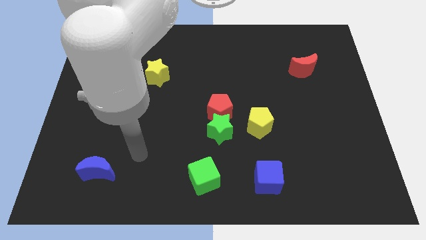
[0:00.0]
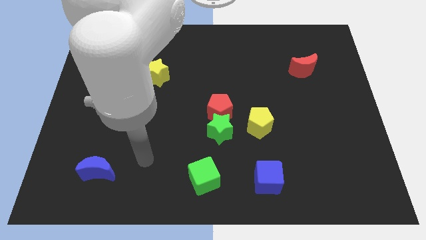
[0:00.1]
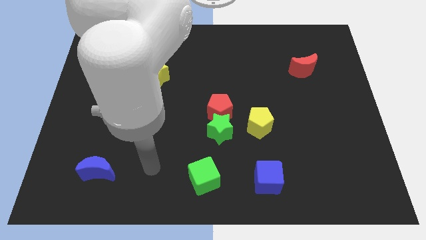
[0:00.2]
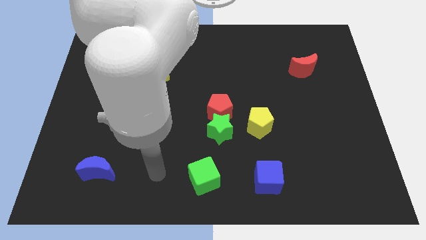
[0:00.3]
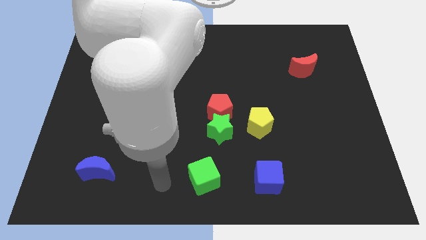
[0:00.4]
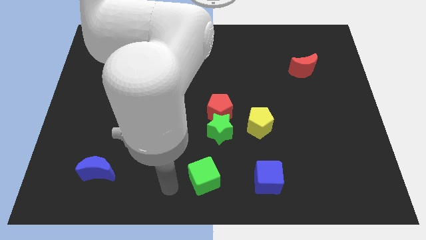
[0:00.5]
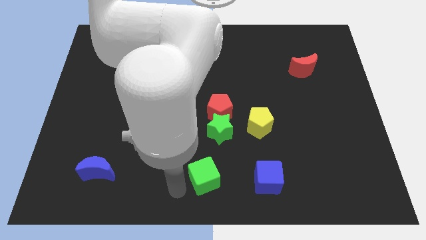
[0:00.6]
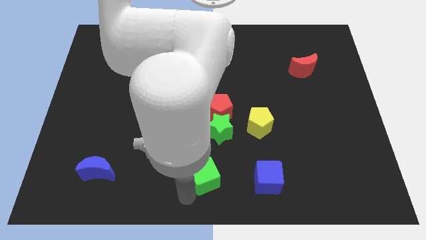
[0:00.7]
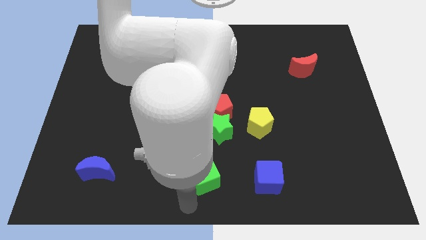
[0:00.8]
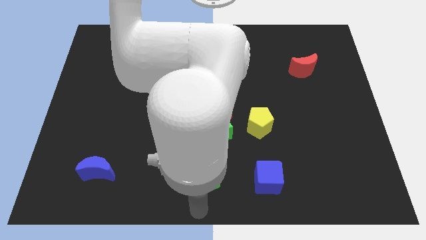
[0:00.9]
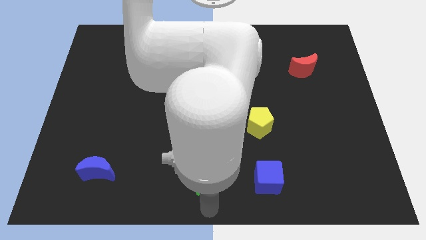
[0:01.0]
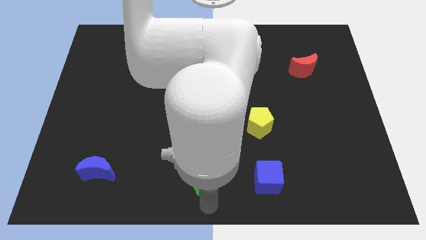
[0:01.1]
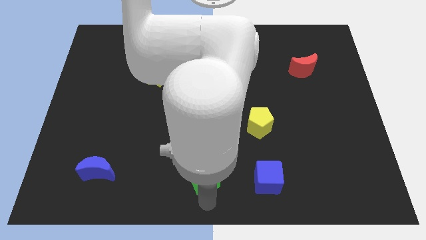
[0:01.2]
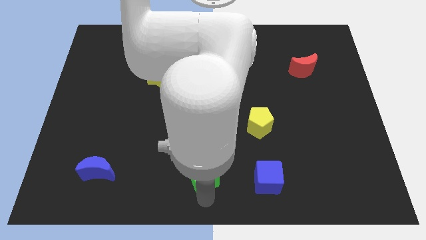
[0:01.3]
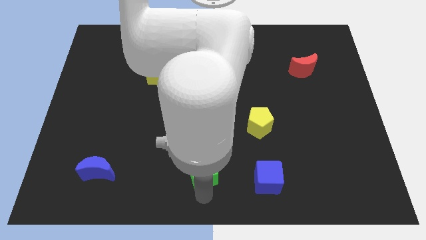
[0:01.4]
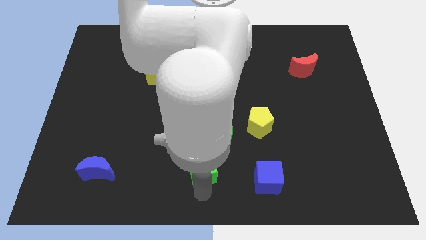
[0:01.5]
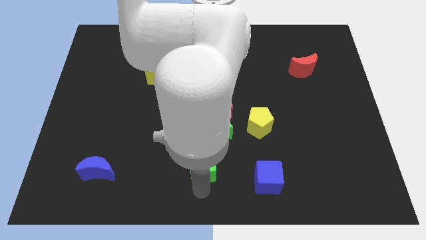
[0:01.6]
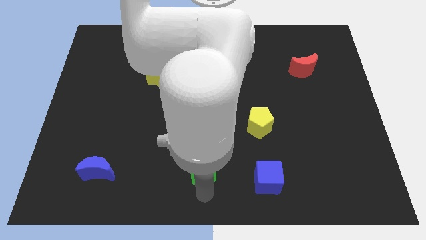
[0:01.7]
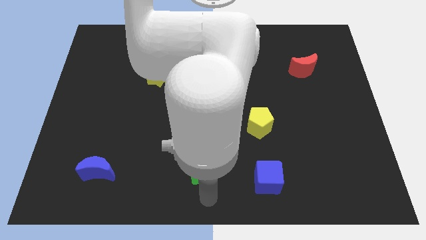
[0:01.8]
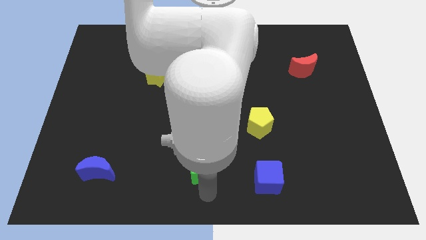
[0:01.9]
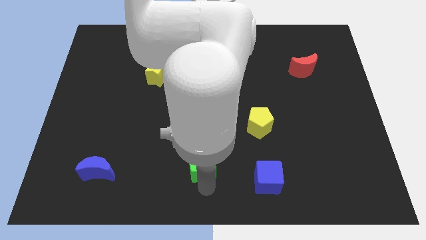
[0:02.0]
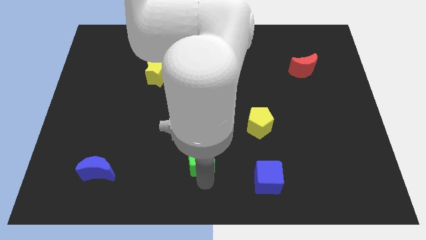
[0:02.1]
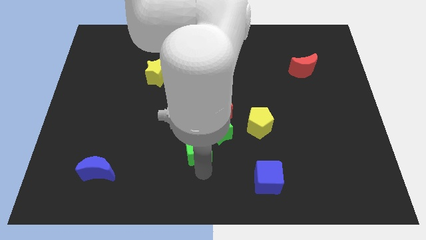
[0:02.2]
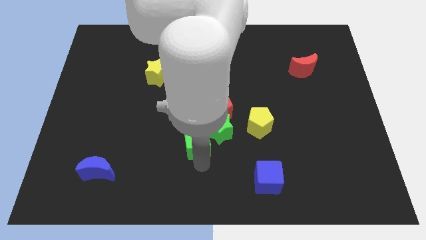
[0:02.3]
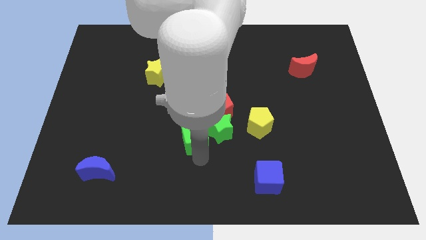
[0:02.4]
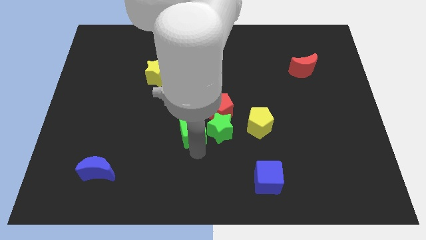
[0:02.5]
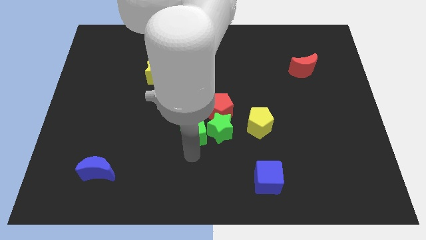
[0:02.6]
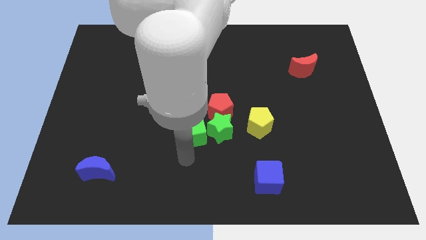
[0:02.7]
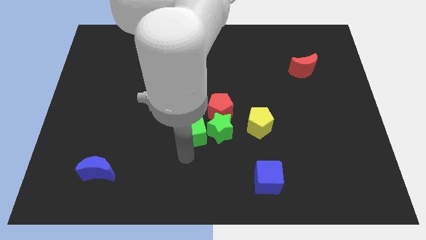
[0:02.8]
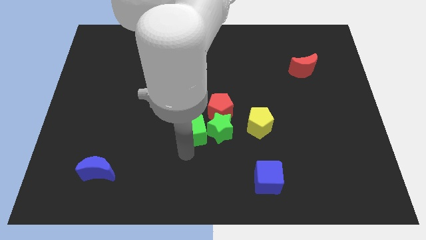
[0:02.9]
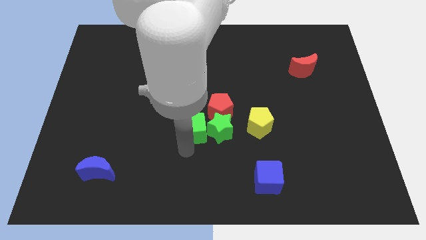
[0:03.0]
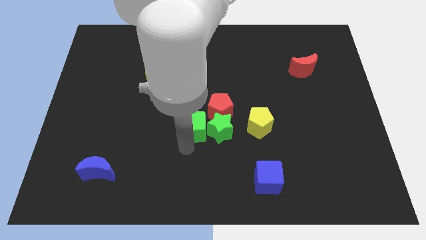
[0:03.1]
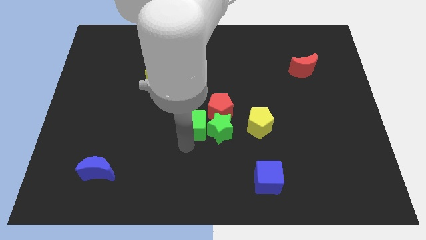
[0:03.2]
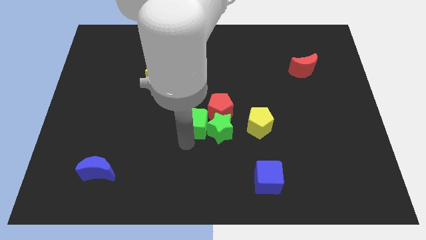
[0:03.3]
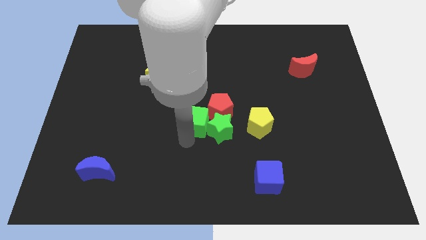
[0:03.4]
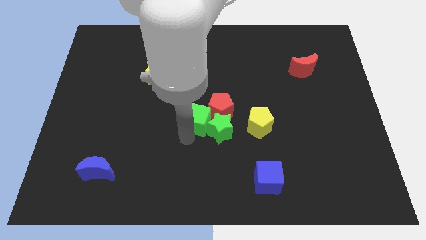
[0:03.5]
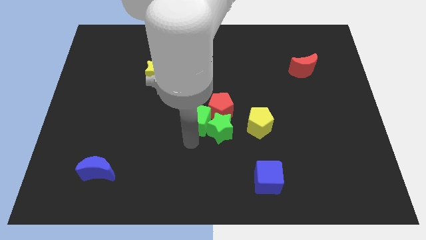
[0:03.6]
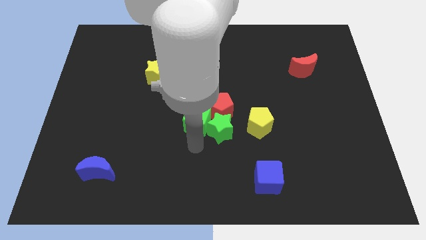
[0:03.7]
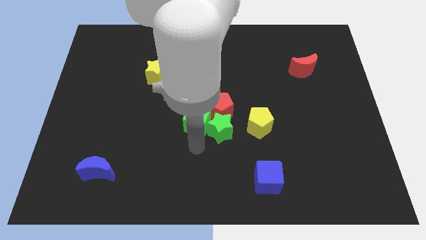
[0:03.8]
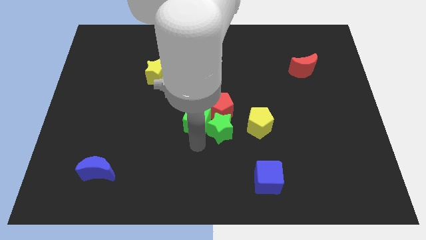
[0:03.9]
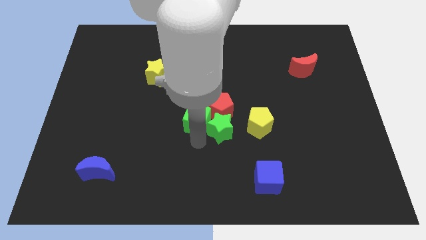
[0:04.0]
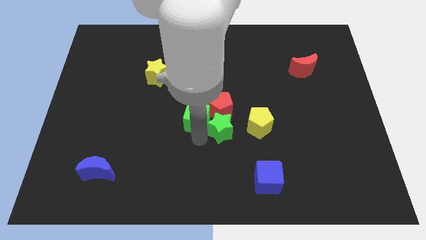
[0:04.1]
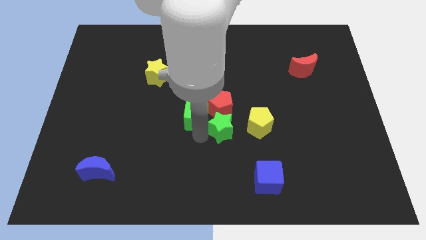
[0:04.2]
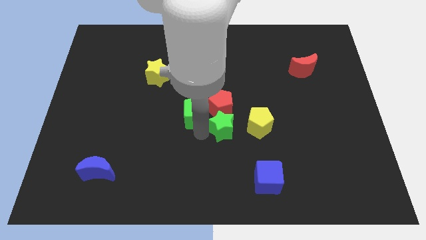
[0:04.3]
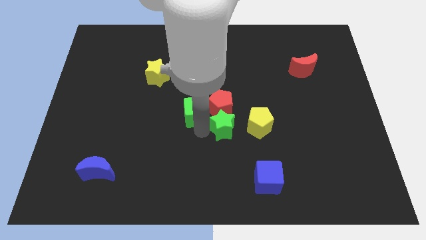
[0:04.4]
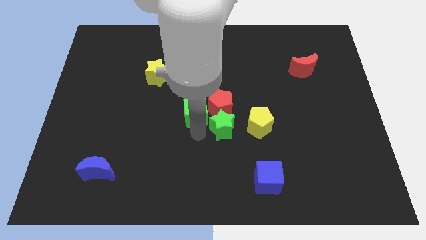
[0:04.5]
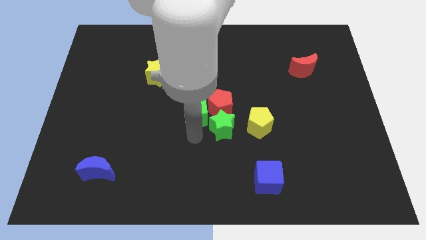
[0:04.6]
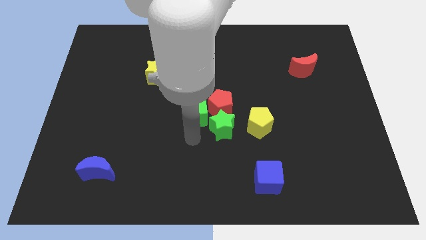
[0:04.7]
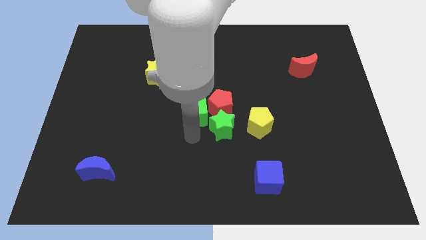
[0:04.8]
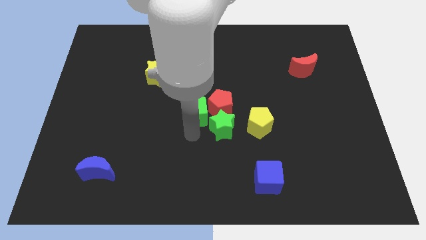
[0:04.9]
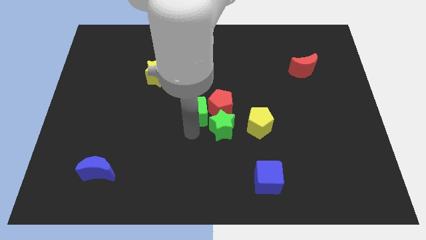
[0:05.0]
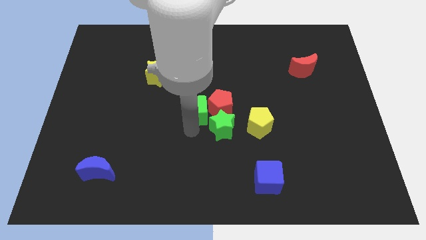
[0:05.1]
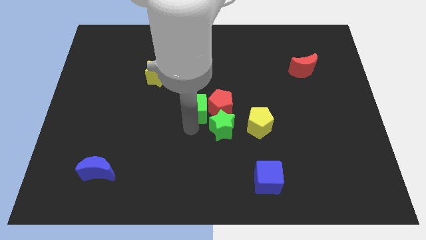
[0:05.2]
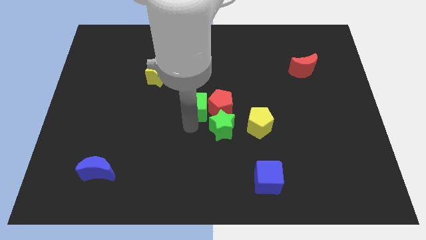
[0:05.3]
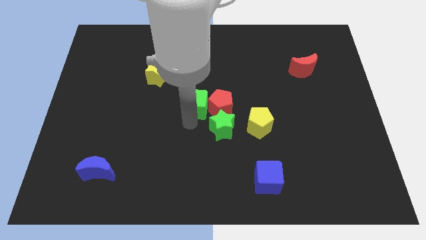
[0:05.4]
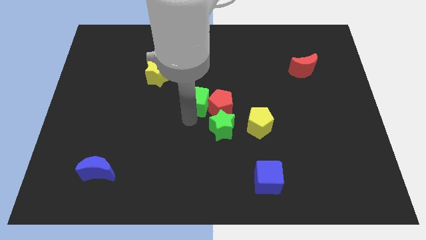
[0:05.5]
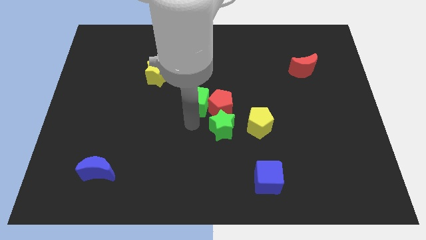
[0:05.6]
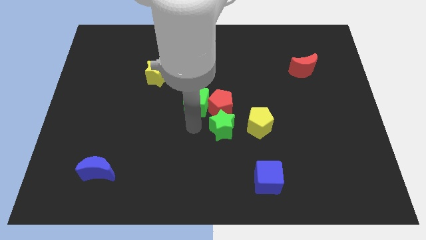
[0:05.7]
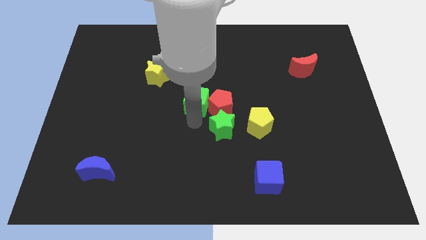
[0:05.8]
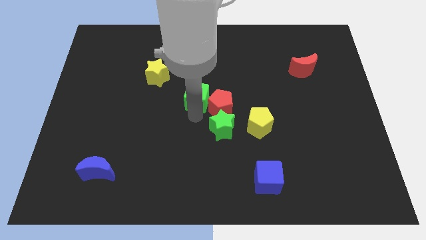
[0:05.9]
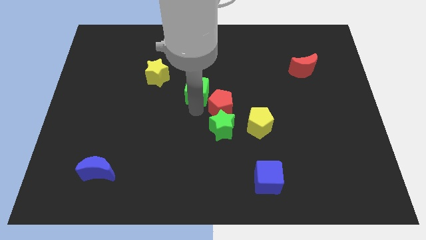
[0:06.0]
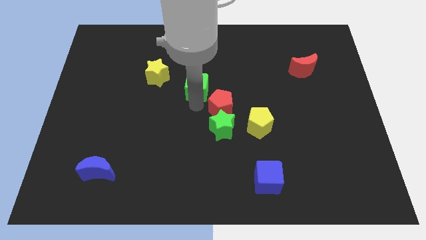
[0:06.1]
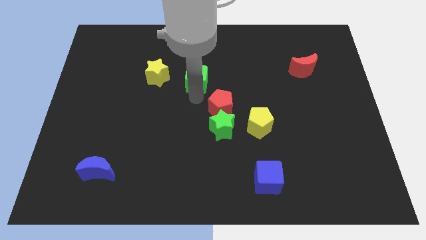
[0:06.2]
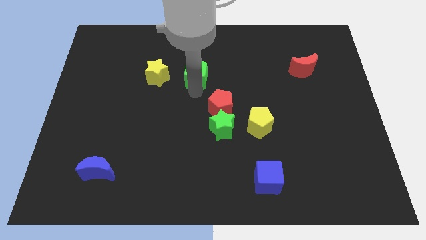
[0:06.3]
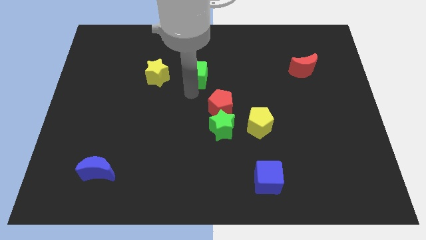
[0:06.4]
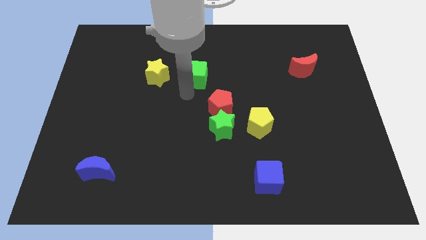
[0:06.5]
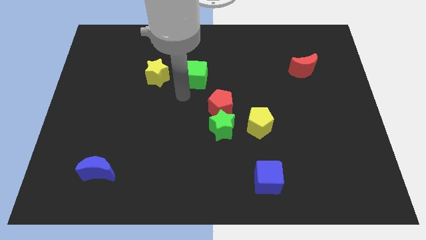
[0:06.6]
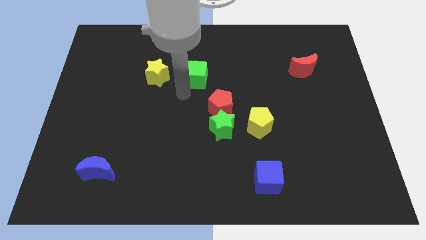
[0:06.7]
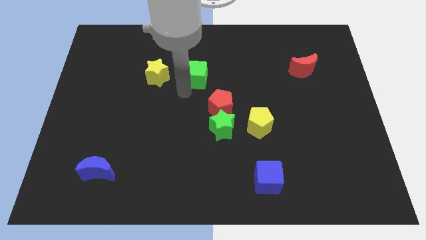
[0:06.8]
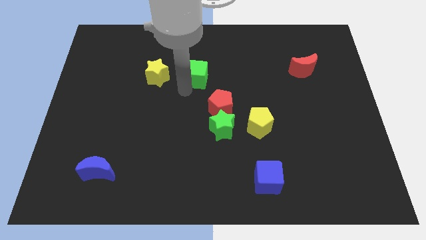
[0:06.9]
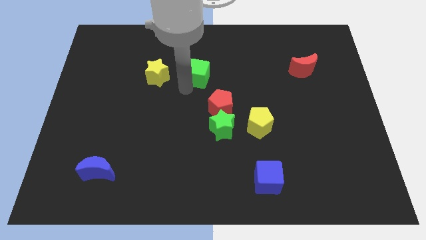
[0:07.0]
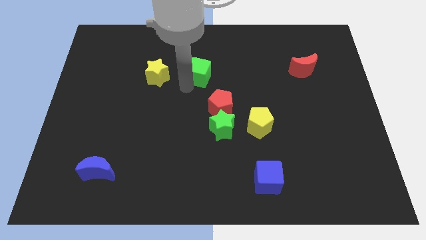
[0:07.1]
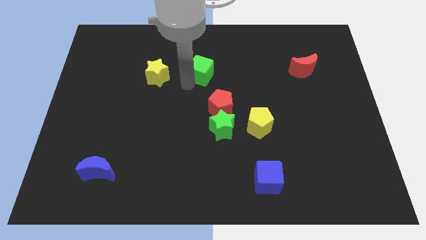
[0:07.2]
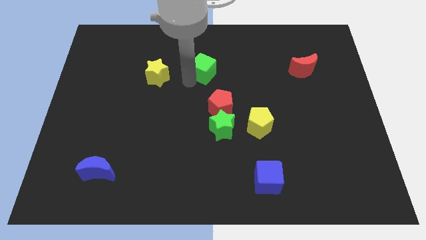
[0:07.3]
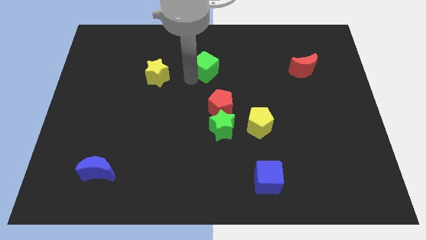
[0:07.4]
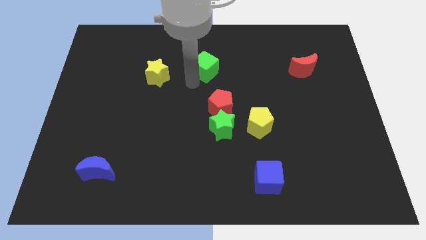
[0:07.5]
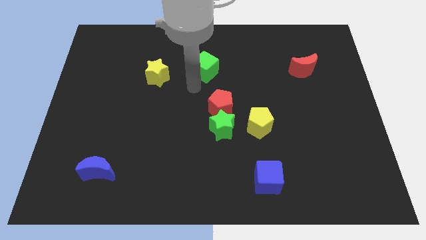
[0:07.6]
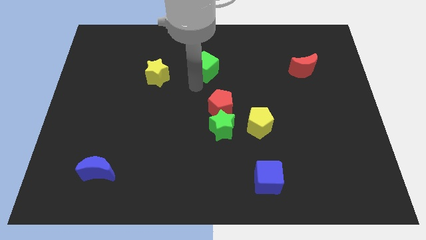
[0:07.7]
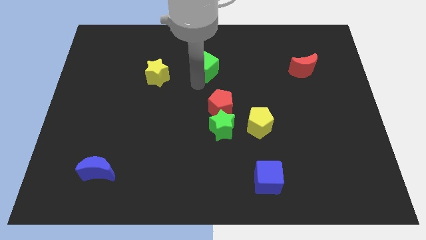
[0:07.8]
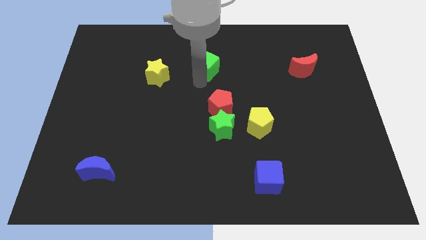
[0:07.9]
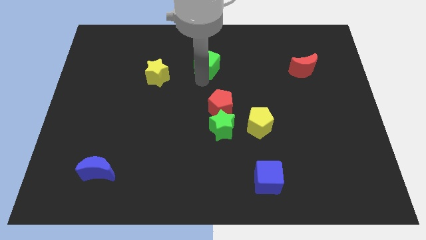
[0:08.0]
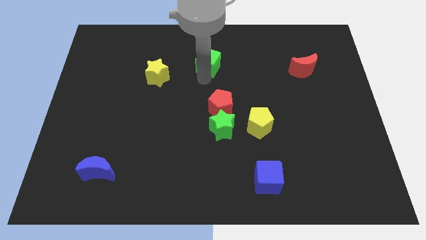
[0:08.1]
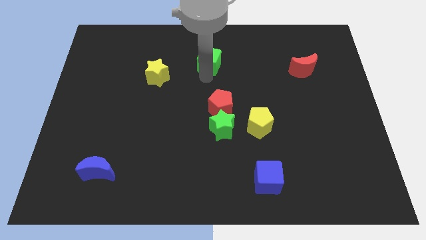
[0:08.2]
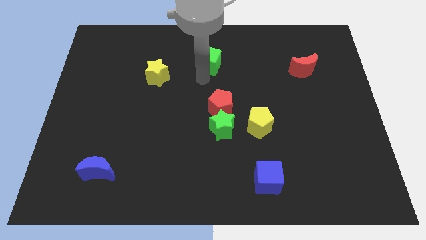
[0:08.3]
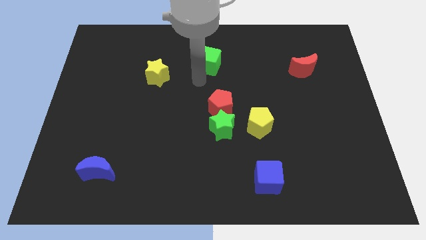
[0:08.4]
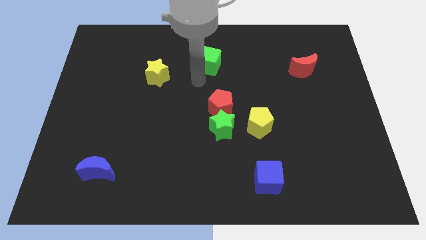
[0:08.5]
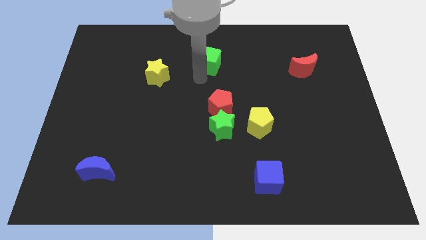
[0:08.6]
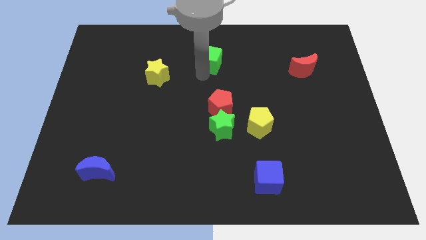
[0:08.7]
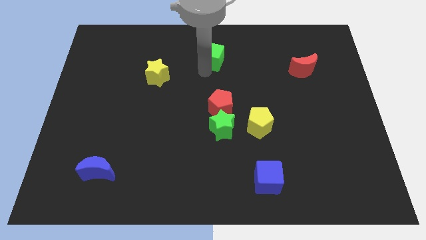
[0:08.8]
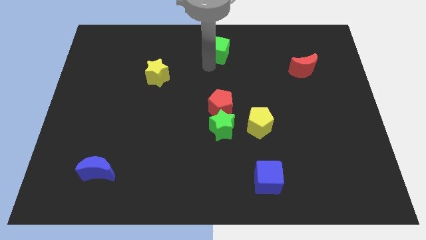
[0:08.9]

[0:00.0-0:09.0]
slide the green cube to the towards your base
